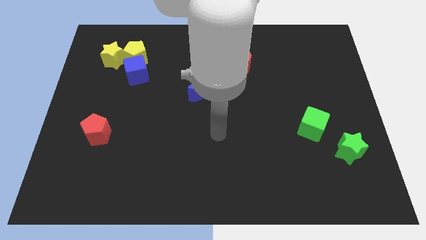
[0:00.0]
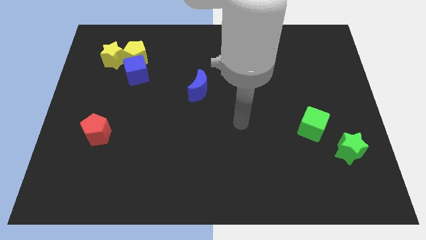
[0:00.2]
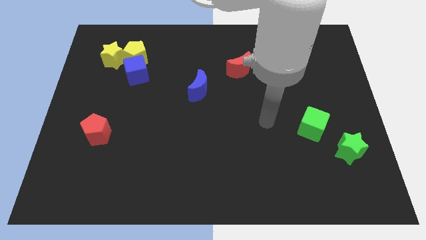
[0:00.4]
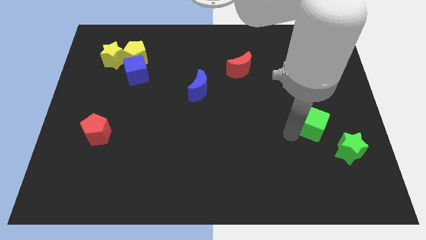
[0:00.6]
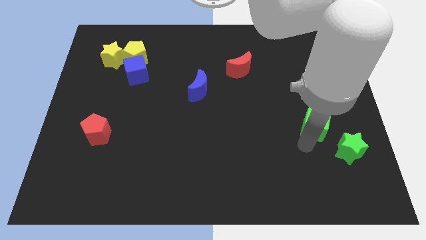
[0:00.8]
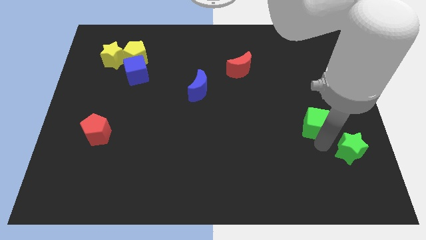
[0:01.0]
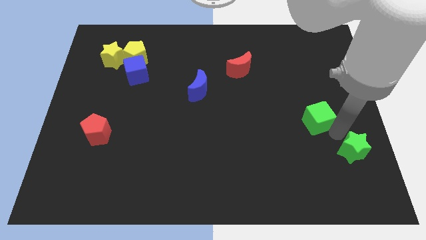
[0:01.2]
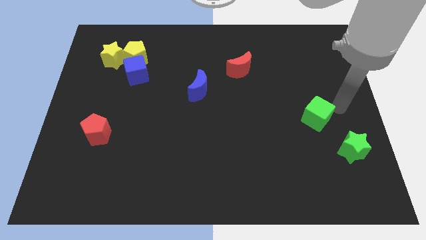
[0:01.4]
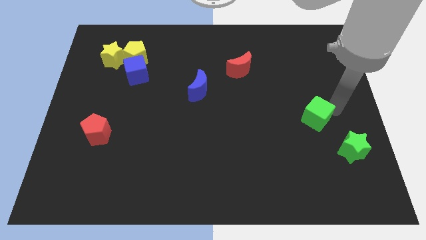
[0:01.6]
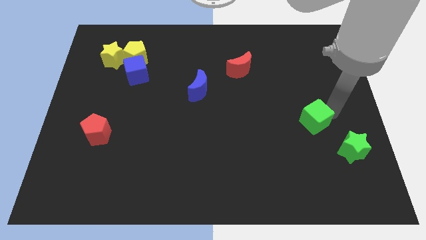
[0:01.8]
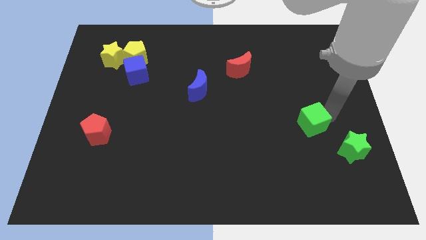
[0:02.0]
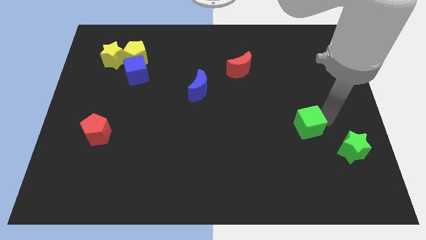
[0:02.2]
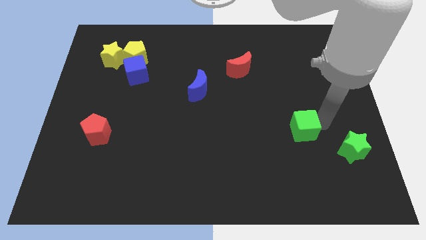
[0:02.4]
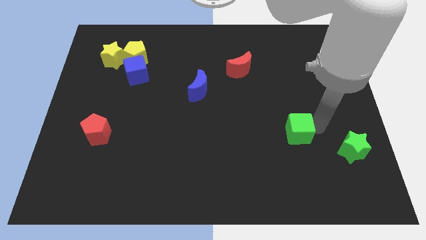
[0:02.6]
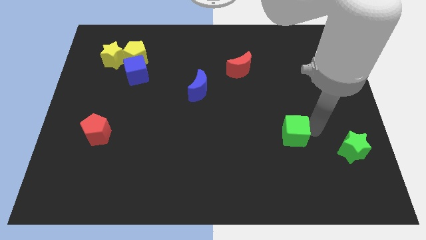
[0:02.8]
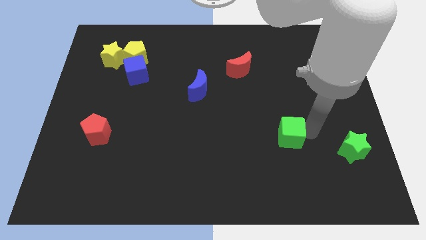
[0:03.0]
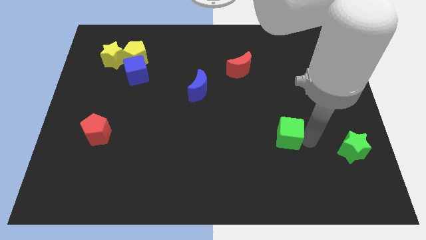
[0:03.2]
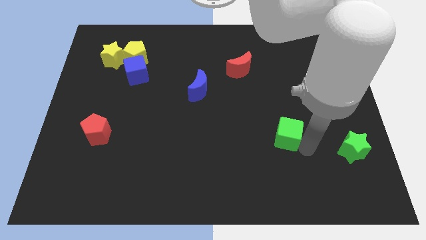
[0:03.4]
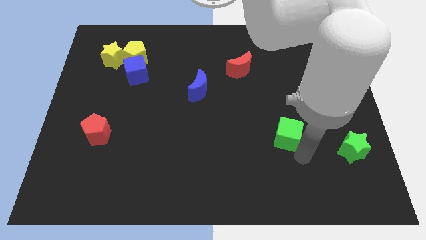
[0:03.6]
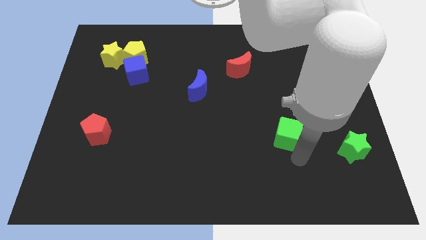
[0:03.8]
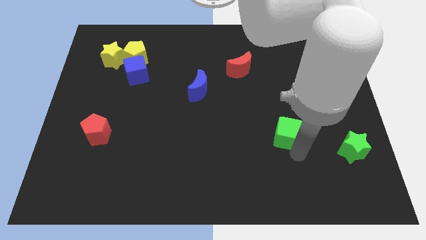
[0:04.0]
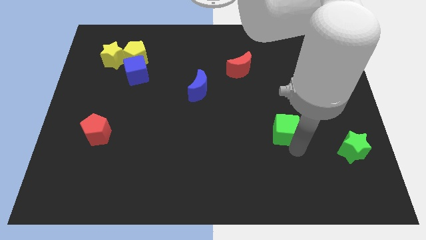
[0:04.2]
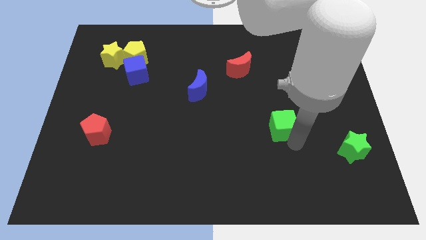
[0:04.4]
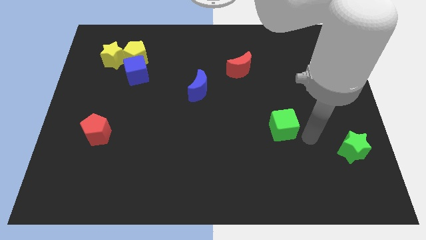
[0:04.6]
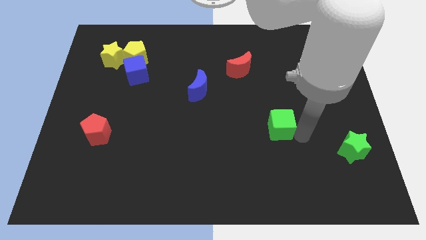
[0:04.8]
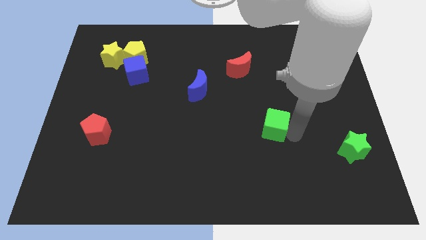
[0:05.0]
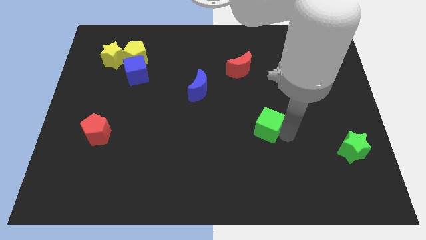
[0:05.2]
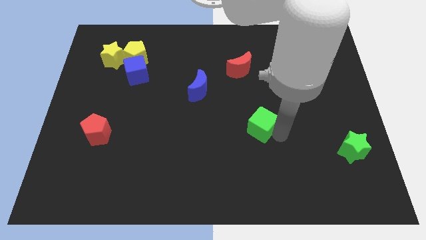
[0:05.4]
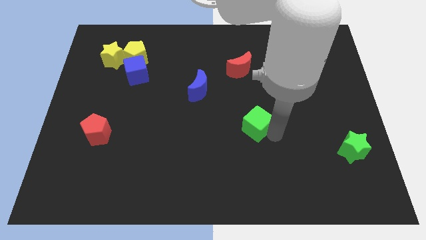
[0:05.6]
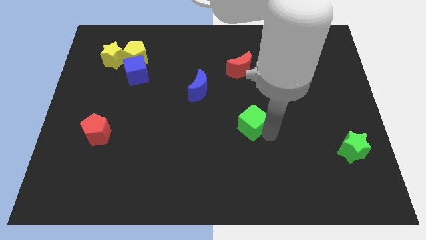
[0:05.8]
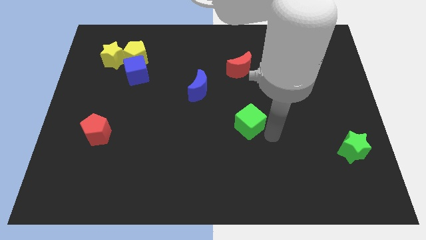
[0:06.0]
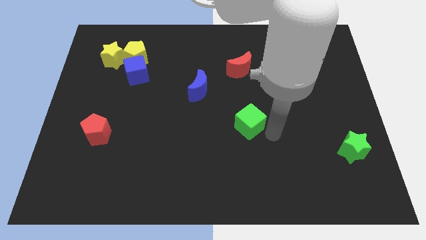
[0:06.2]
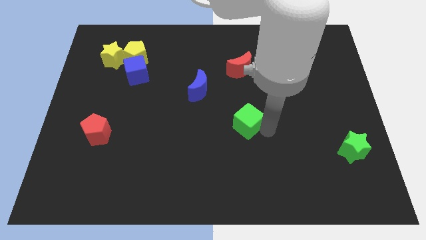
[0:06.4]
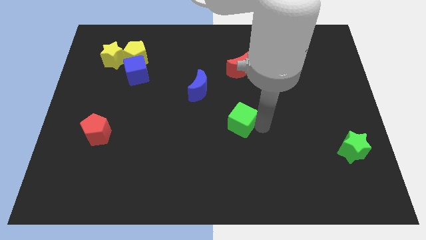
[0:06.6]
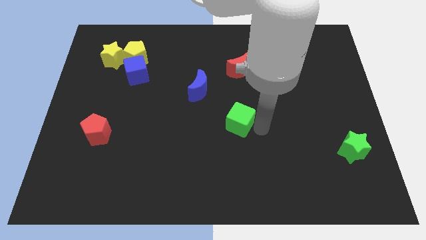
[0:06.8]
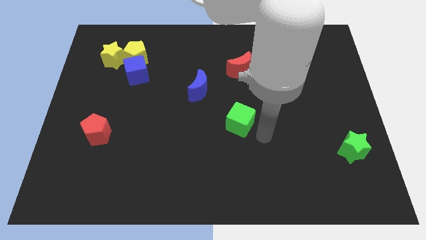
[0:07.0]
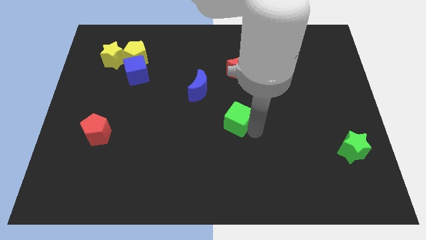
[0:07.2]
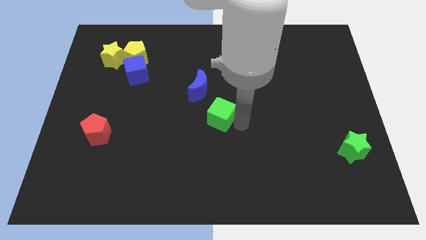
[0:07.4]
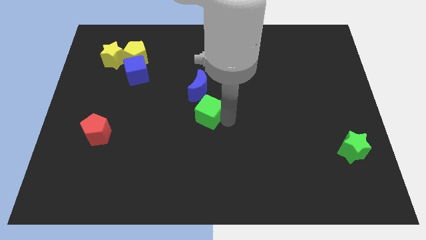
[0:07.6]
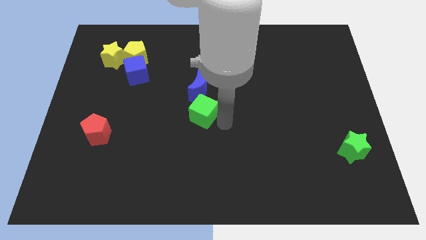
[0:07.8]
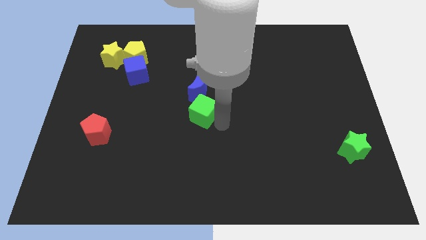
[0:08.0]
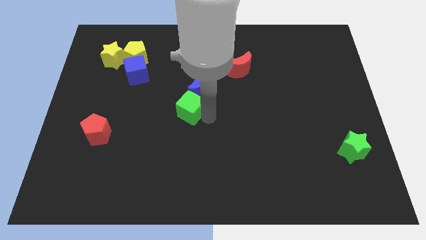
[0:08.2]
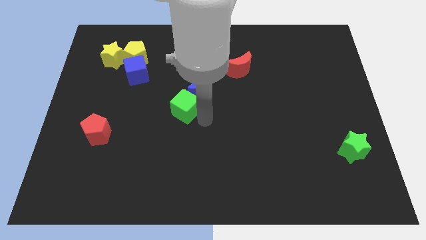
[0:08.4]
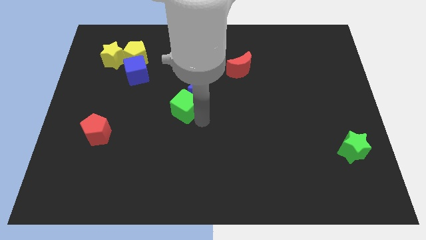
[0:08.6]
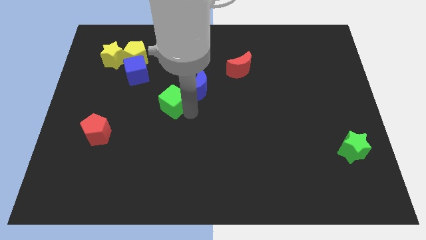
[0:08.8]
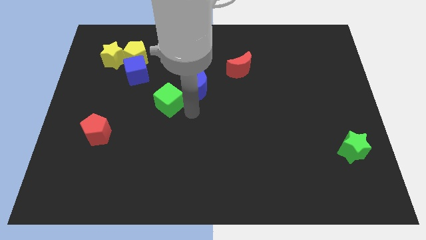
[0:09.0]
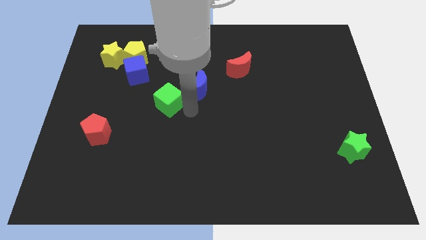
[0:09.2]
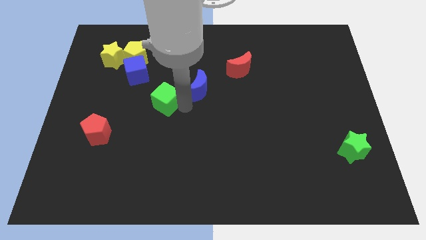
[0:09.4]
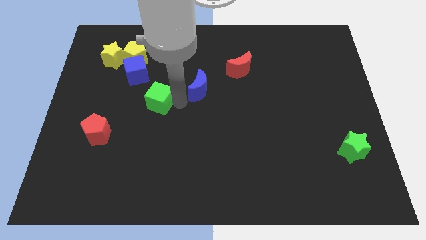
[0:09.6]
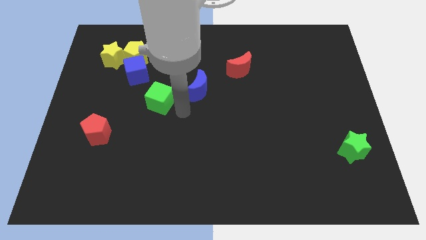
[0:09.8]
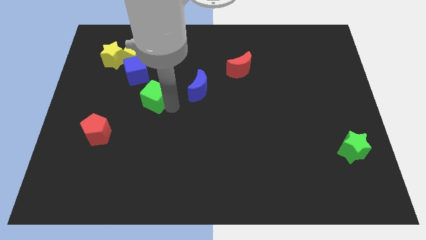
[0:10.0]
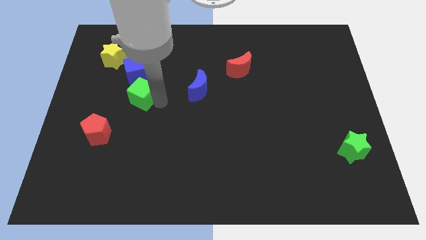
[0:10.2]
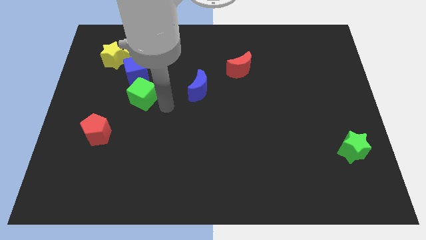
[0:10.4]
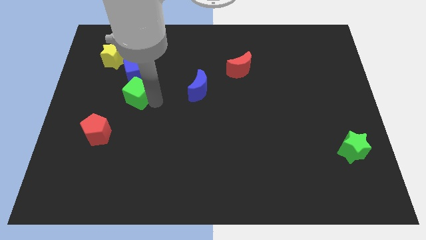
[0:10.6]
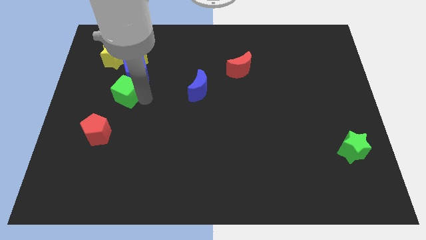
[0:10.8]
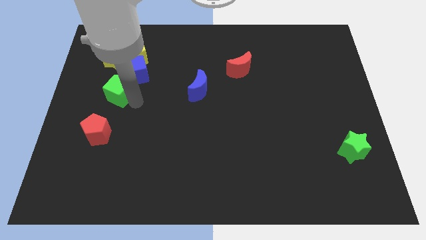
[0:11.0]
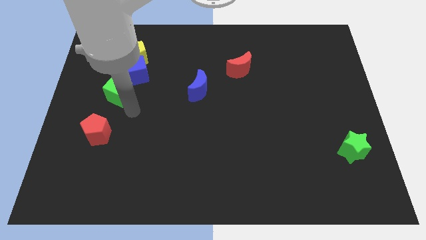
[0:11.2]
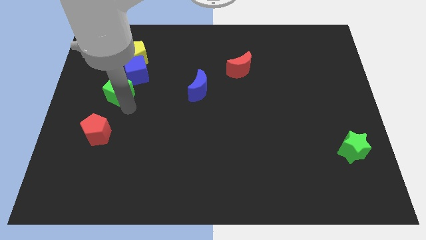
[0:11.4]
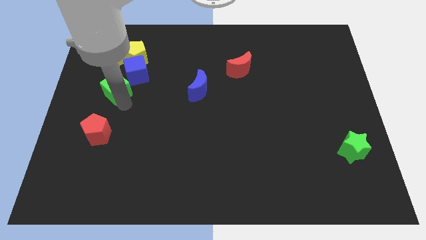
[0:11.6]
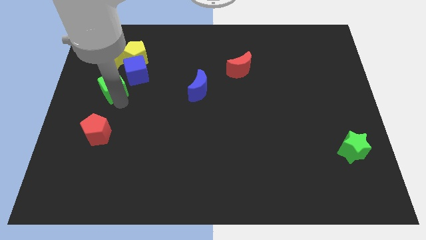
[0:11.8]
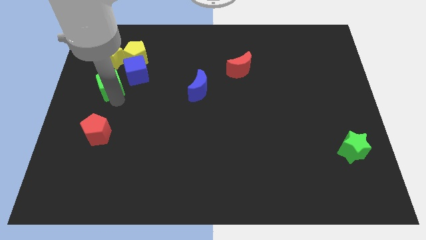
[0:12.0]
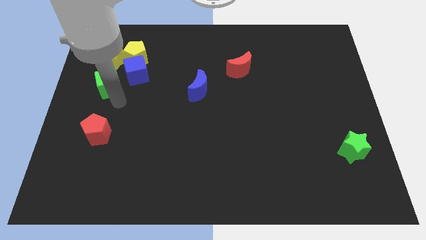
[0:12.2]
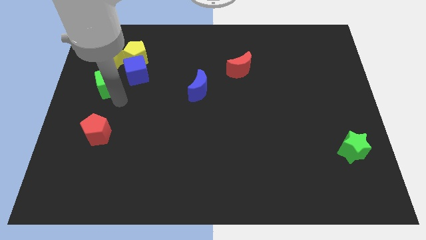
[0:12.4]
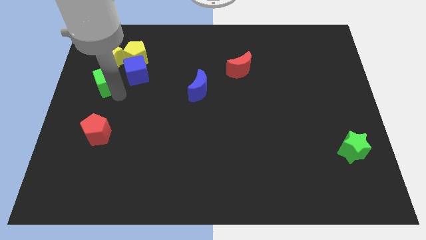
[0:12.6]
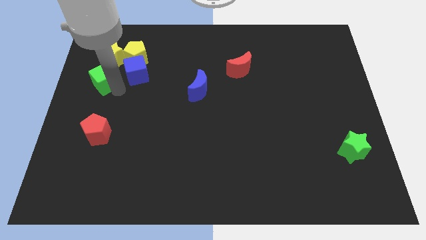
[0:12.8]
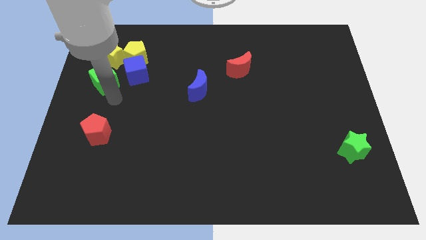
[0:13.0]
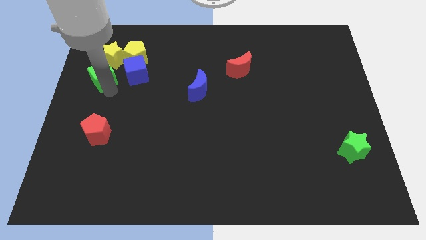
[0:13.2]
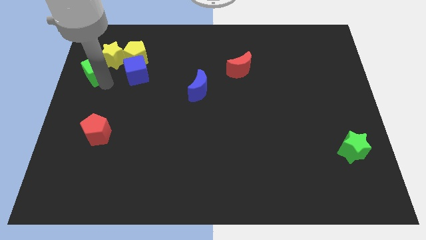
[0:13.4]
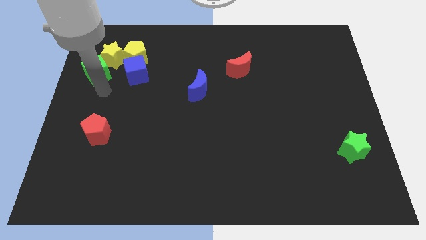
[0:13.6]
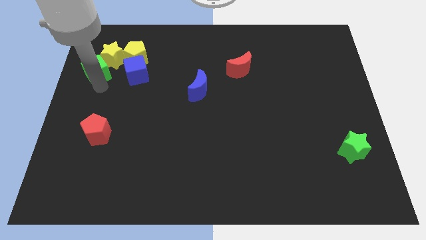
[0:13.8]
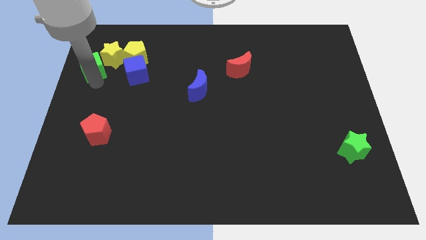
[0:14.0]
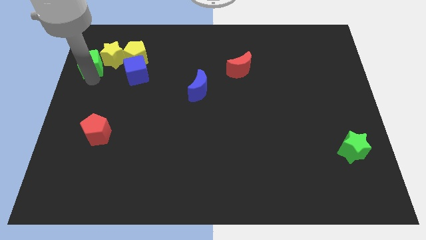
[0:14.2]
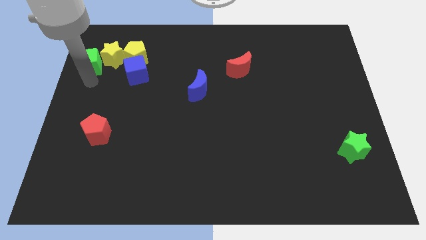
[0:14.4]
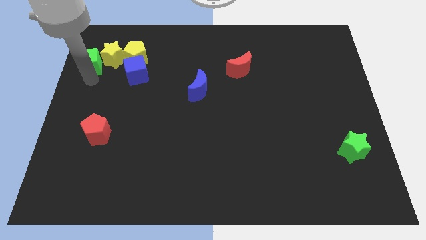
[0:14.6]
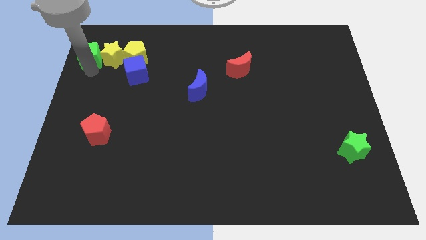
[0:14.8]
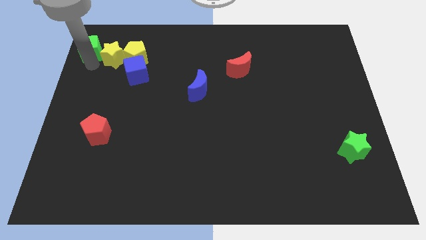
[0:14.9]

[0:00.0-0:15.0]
put the green cube to the top left

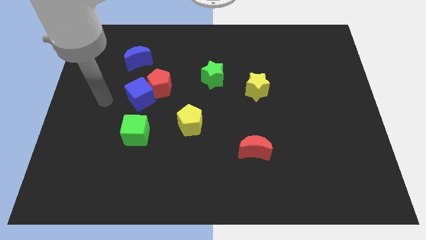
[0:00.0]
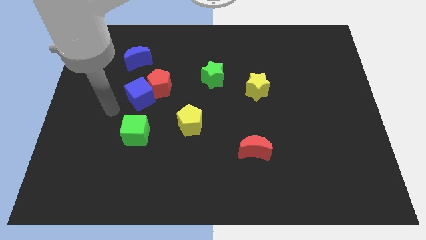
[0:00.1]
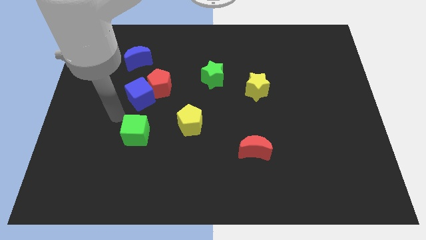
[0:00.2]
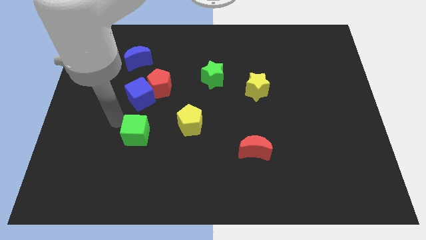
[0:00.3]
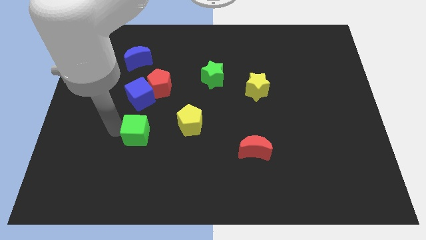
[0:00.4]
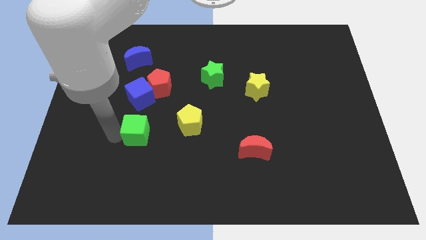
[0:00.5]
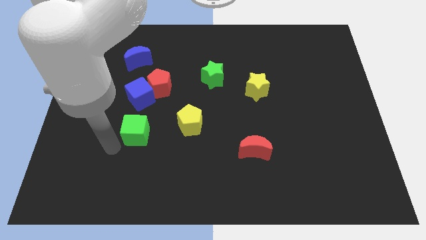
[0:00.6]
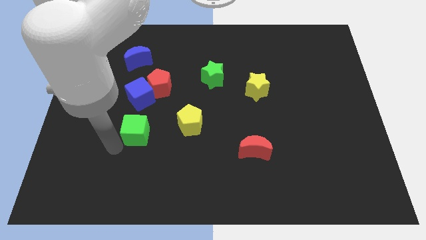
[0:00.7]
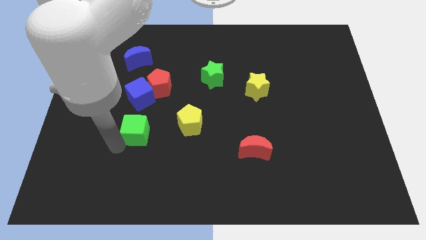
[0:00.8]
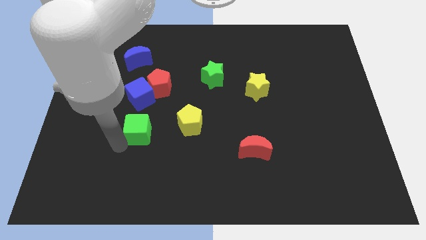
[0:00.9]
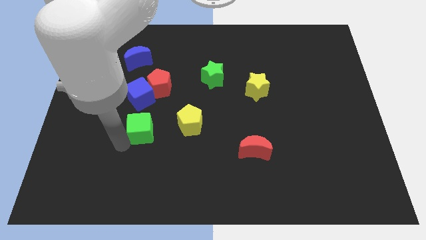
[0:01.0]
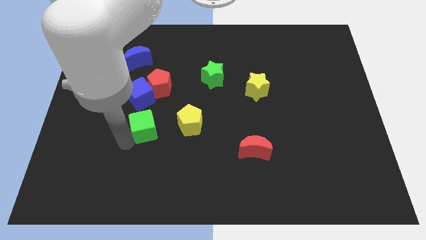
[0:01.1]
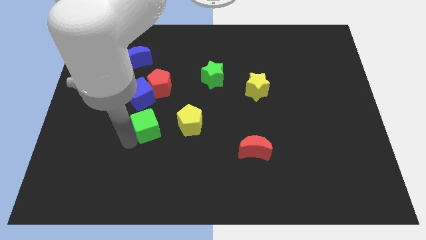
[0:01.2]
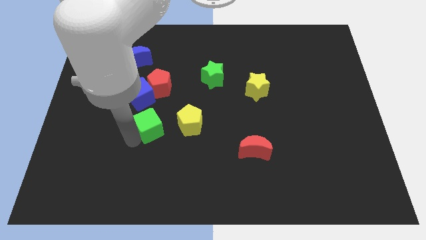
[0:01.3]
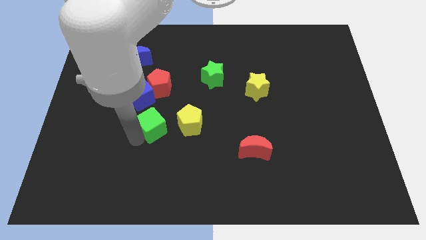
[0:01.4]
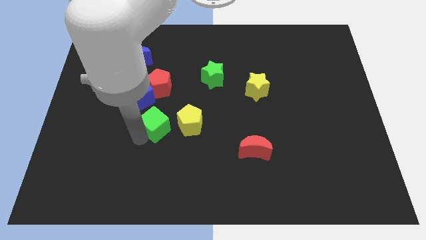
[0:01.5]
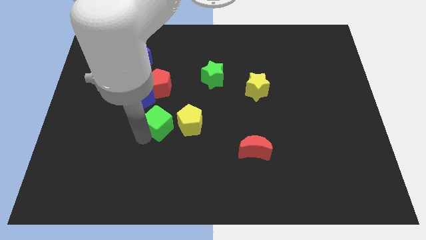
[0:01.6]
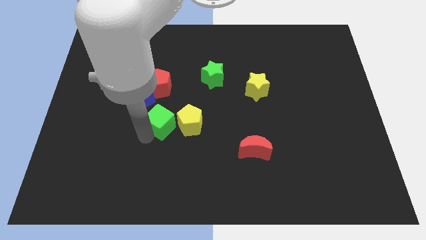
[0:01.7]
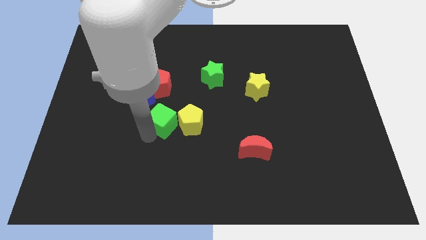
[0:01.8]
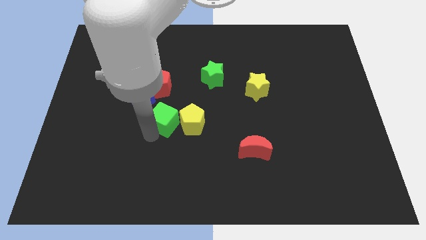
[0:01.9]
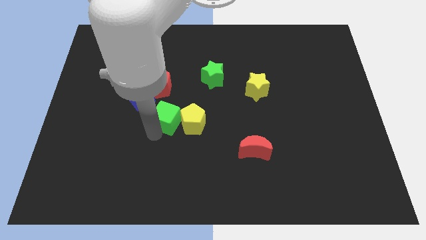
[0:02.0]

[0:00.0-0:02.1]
put the green cube to the middle
